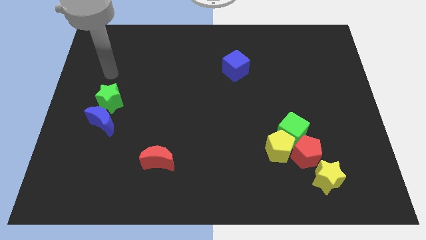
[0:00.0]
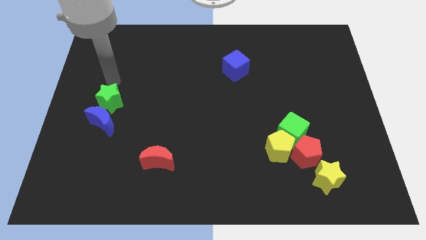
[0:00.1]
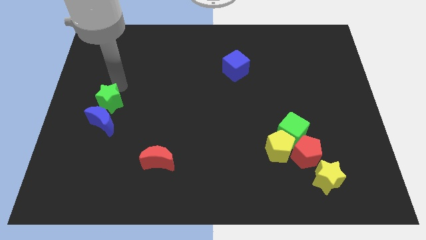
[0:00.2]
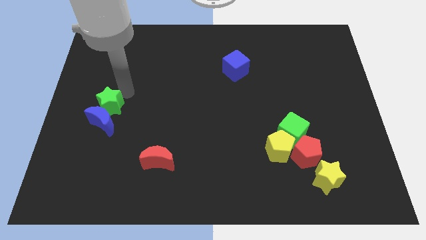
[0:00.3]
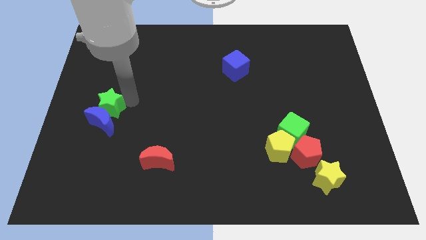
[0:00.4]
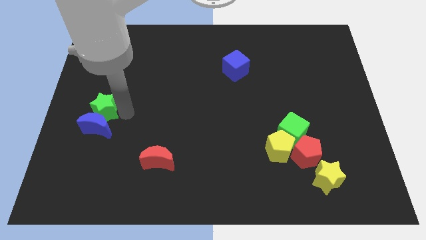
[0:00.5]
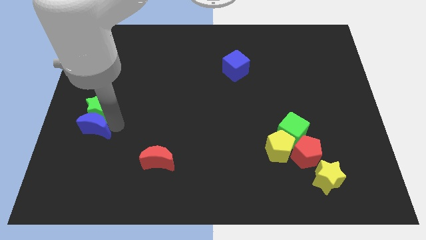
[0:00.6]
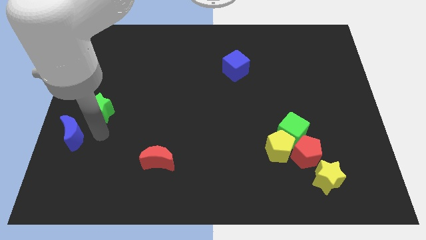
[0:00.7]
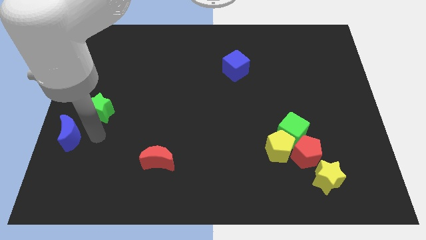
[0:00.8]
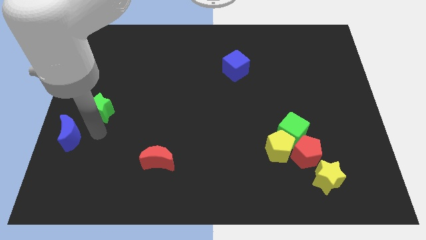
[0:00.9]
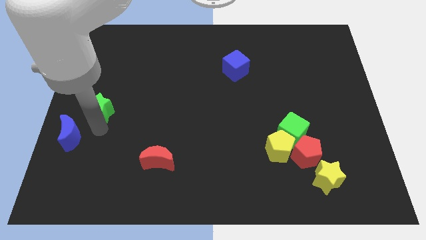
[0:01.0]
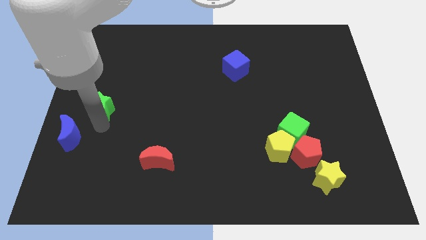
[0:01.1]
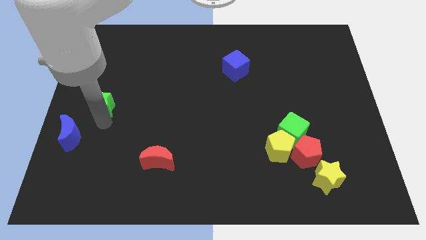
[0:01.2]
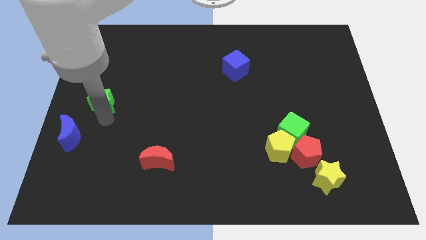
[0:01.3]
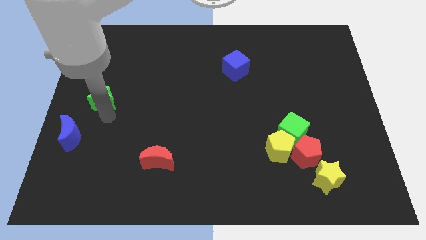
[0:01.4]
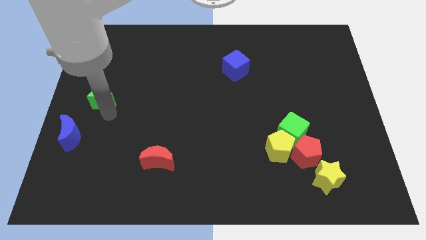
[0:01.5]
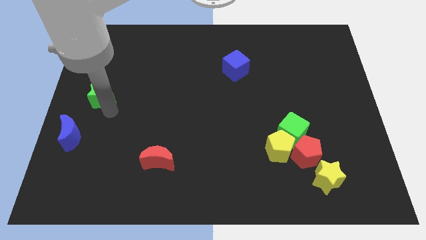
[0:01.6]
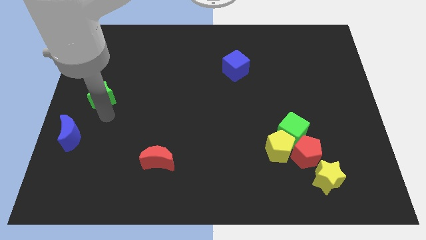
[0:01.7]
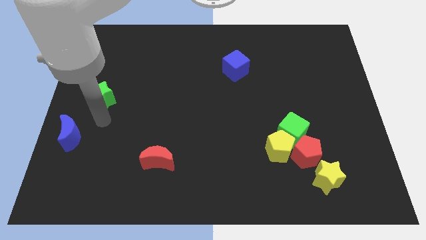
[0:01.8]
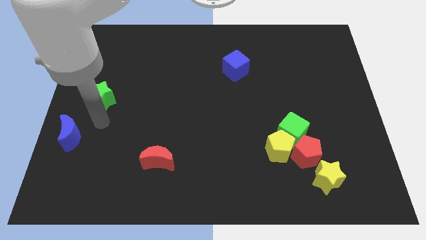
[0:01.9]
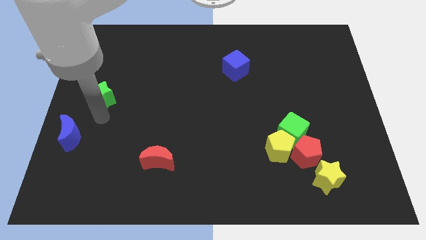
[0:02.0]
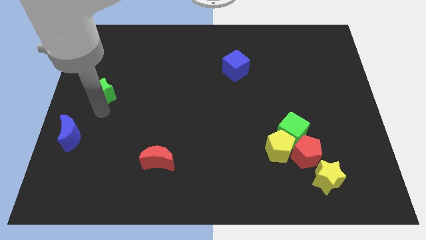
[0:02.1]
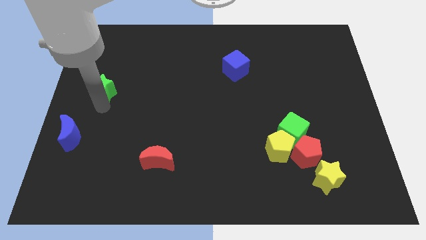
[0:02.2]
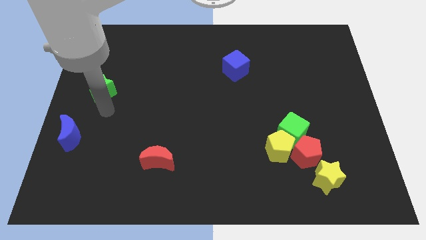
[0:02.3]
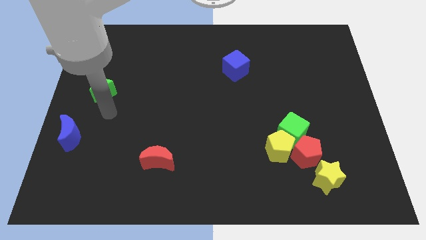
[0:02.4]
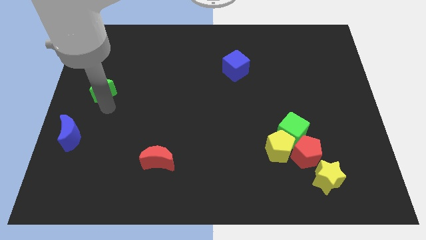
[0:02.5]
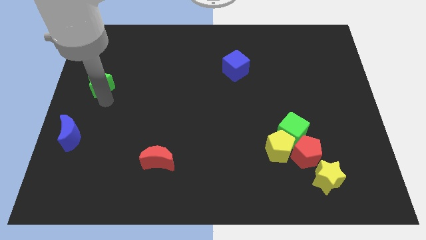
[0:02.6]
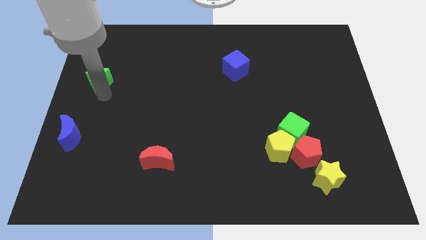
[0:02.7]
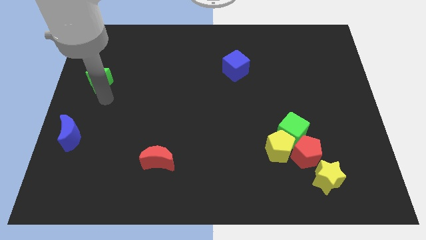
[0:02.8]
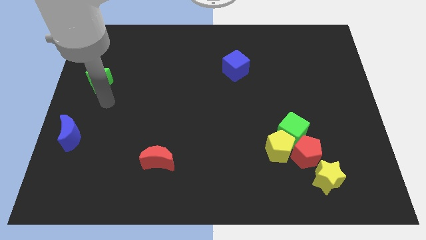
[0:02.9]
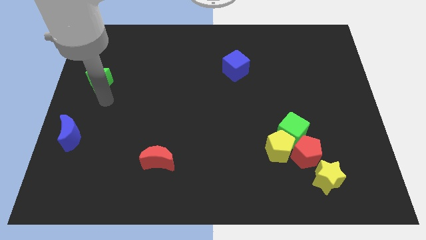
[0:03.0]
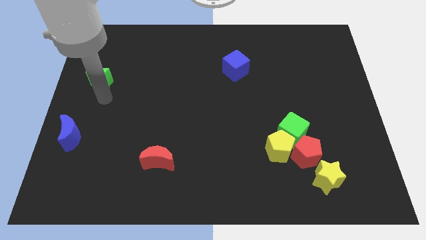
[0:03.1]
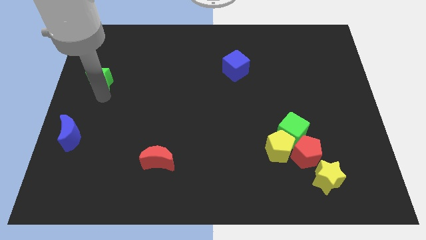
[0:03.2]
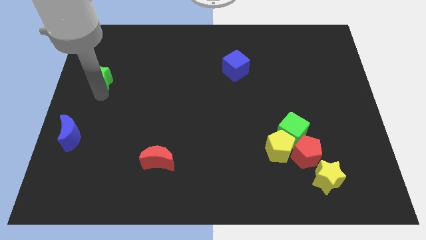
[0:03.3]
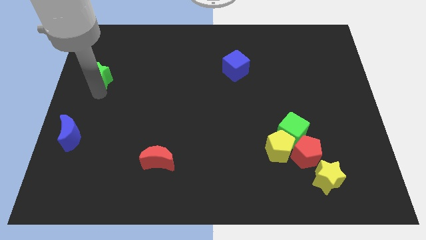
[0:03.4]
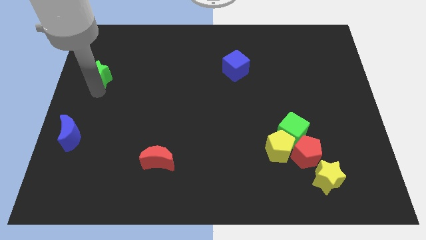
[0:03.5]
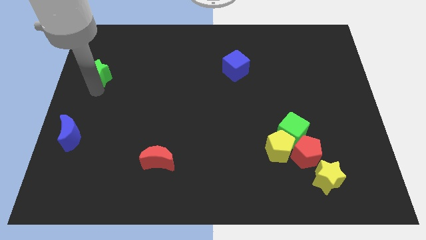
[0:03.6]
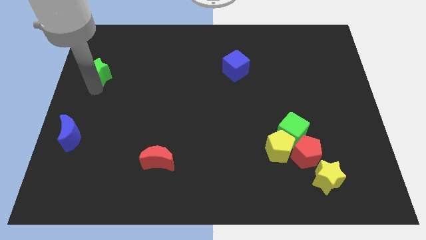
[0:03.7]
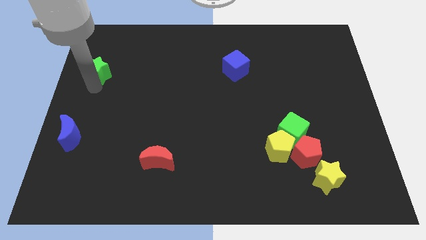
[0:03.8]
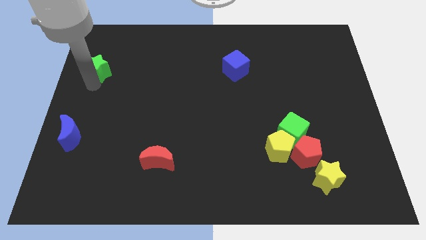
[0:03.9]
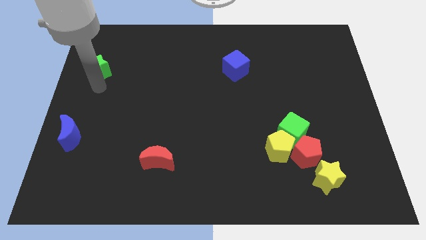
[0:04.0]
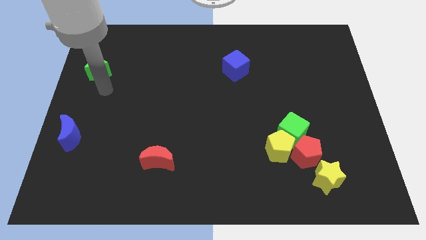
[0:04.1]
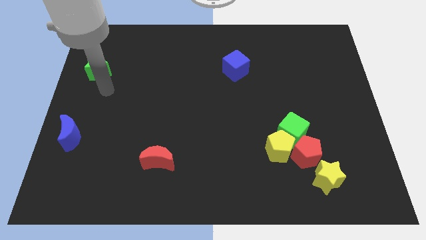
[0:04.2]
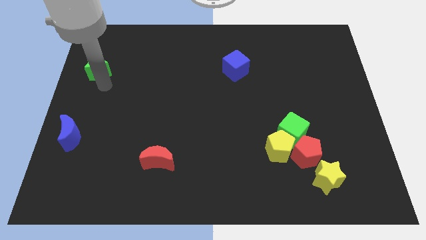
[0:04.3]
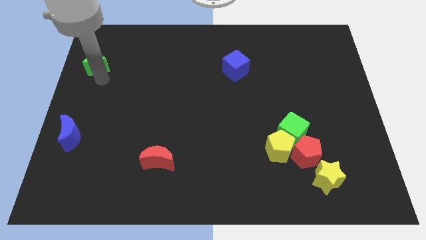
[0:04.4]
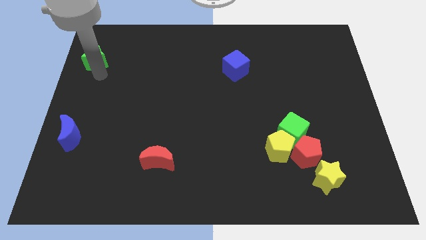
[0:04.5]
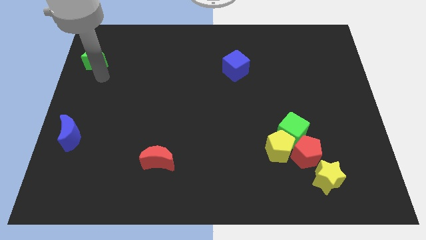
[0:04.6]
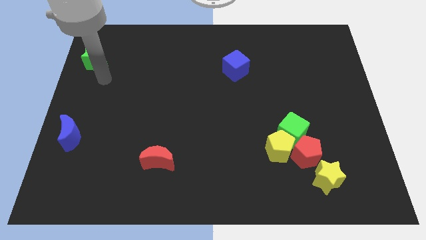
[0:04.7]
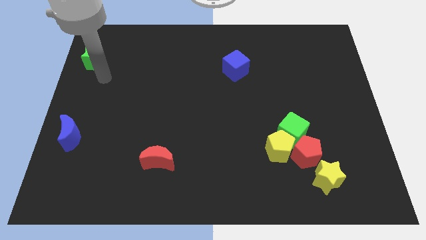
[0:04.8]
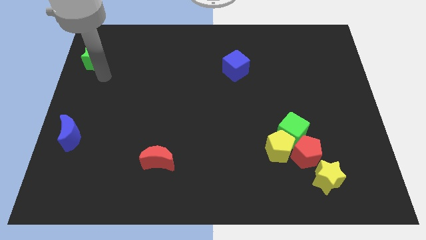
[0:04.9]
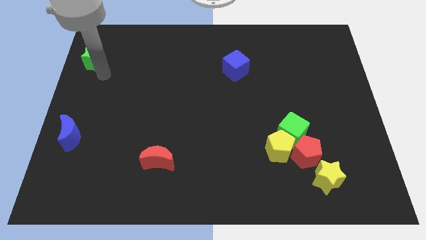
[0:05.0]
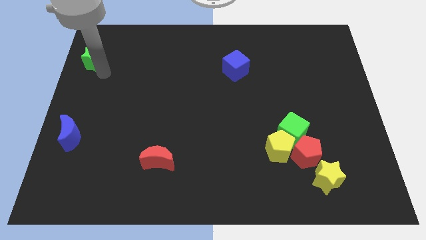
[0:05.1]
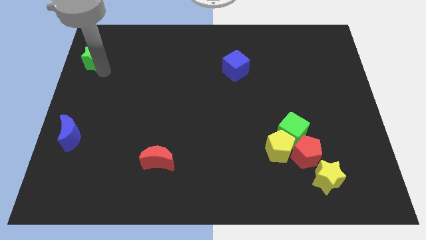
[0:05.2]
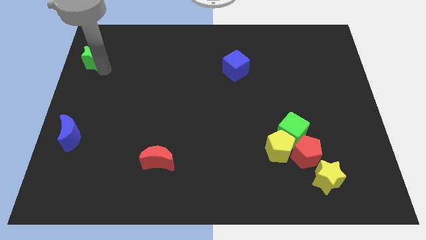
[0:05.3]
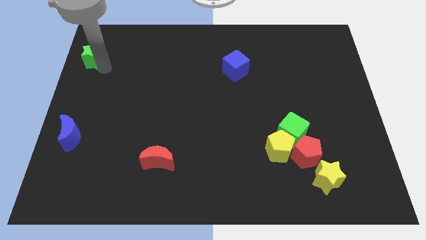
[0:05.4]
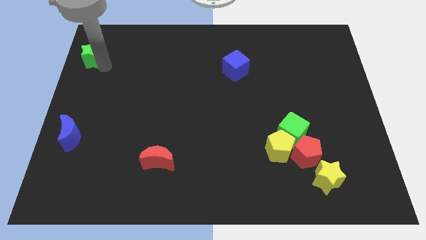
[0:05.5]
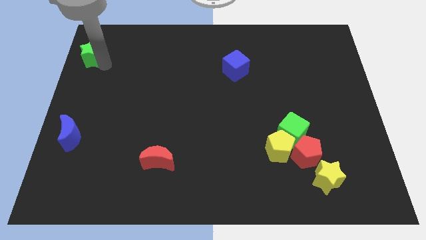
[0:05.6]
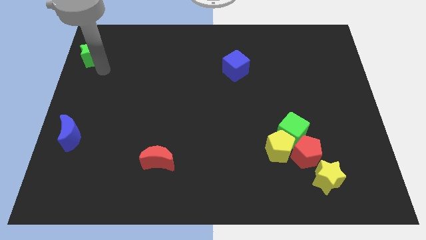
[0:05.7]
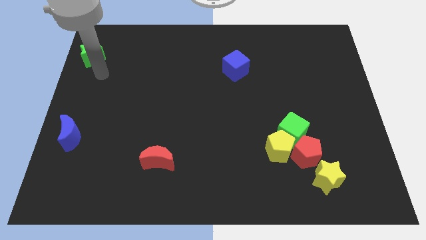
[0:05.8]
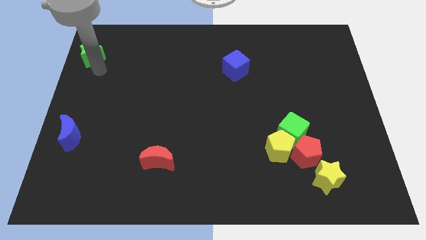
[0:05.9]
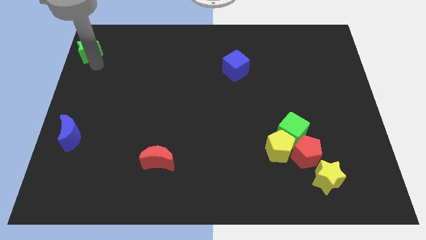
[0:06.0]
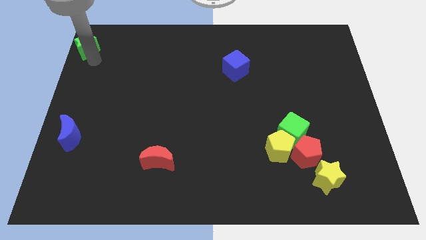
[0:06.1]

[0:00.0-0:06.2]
slide the green star to the top left corner
